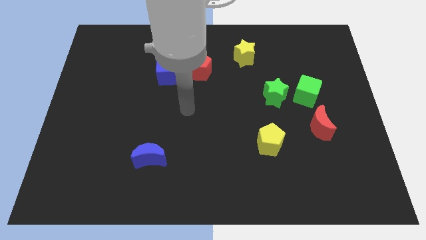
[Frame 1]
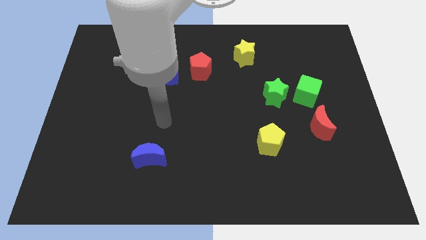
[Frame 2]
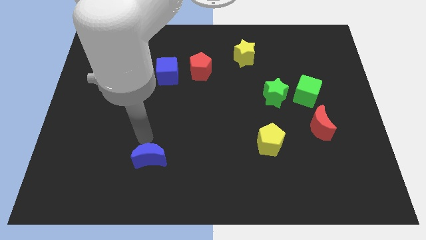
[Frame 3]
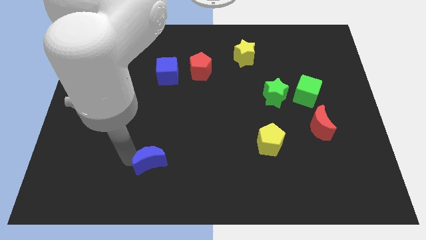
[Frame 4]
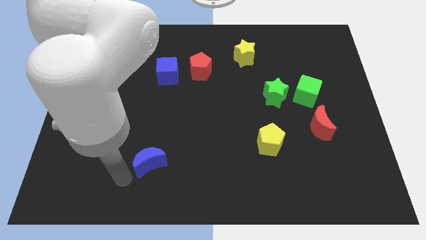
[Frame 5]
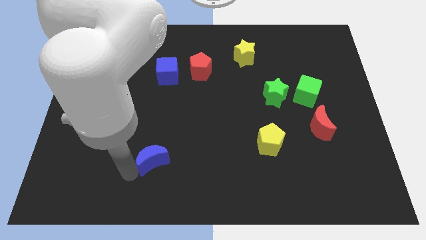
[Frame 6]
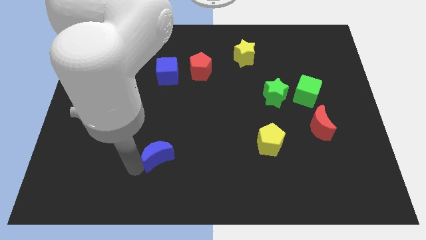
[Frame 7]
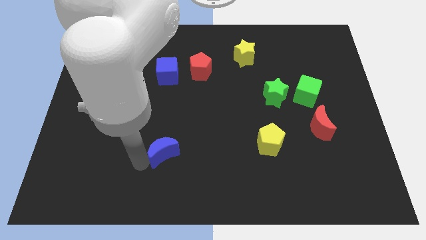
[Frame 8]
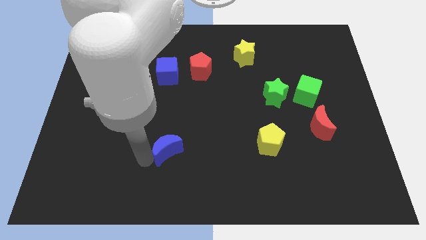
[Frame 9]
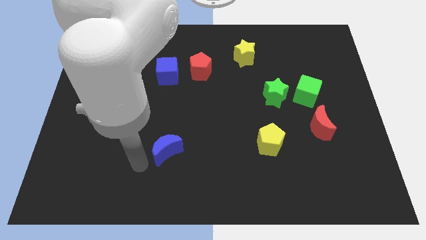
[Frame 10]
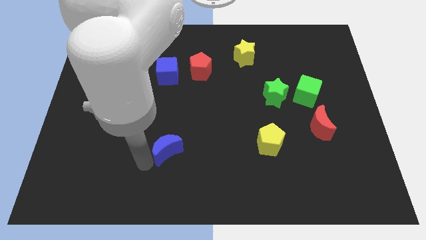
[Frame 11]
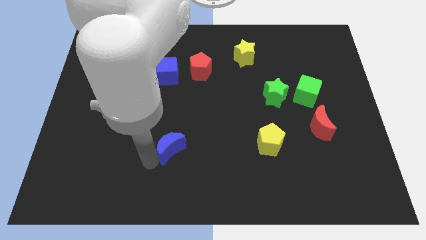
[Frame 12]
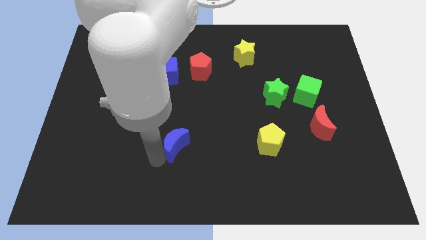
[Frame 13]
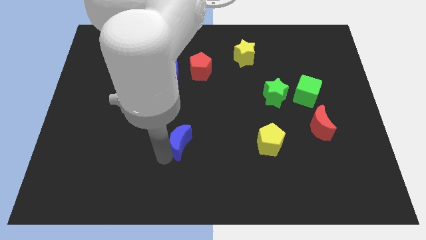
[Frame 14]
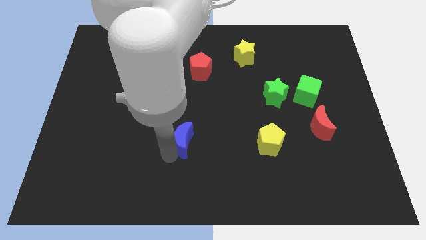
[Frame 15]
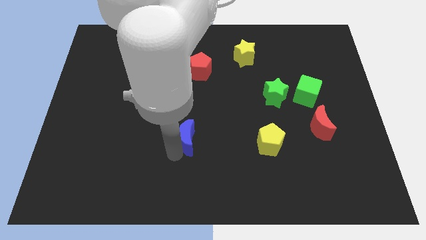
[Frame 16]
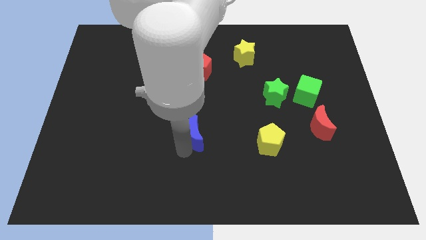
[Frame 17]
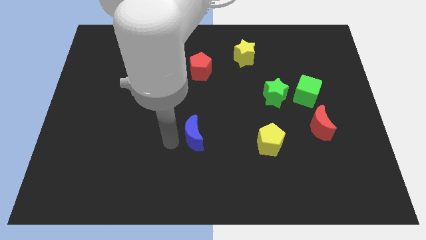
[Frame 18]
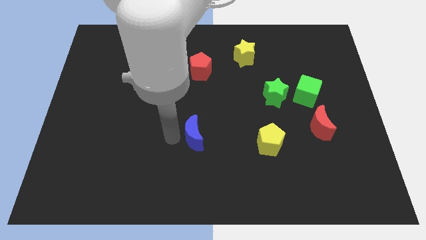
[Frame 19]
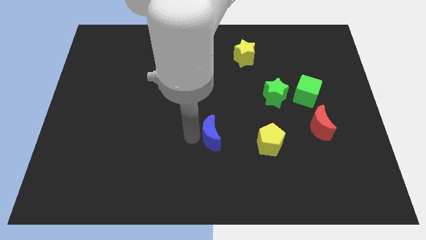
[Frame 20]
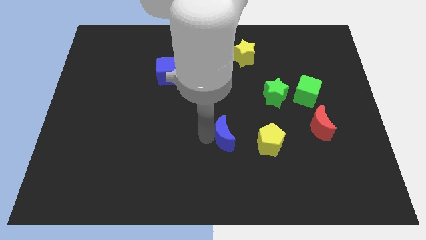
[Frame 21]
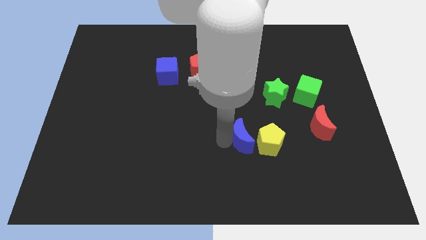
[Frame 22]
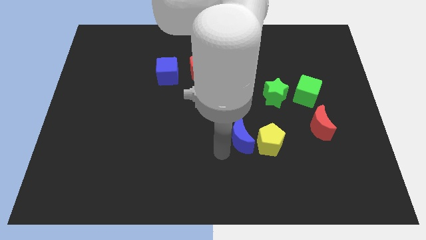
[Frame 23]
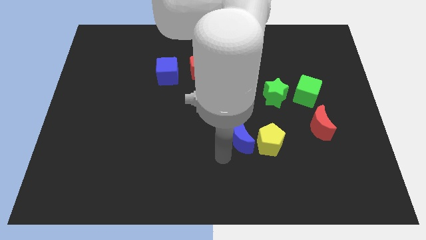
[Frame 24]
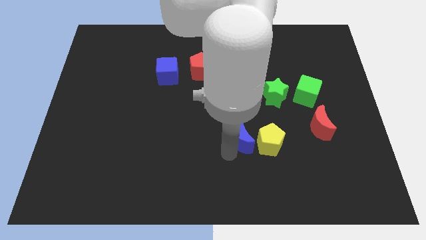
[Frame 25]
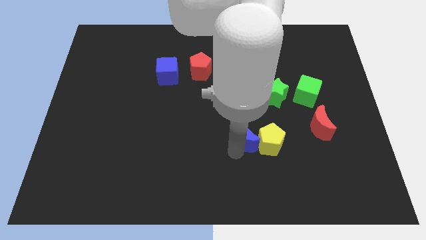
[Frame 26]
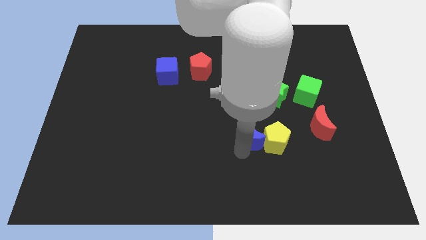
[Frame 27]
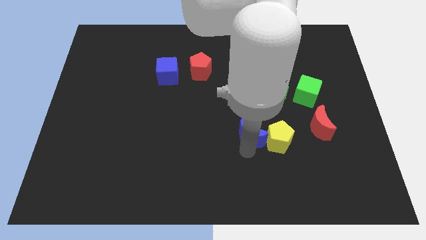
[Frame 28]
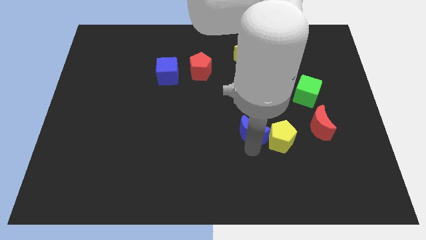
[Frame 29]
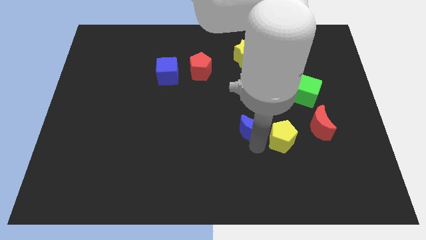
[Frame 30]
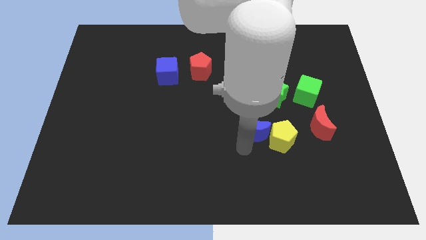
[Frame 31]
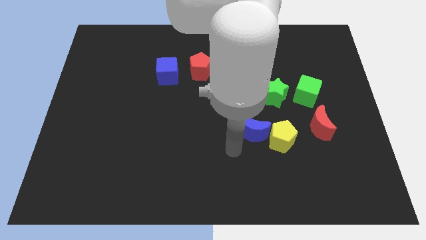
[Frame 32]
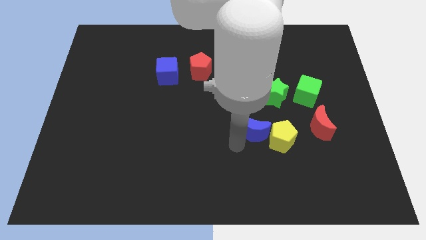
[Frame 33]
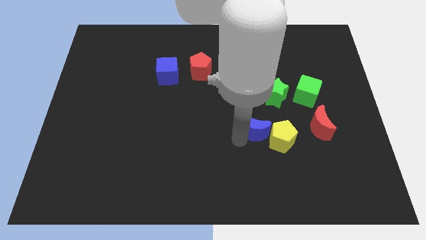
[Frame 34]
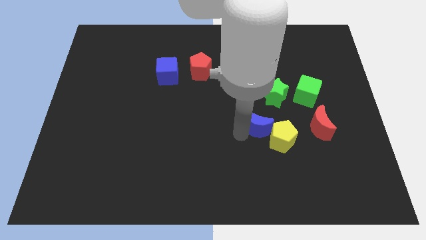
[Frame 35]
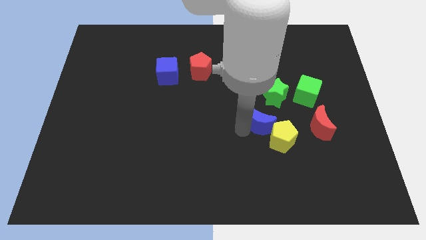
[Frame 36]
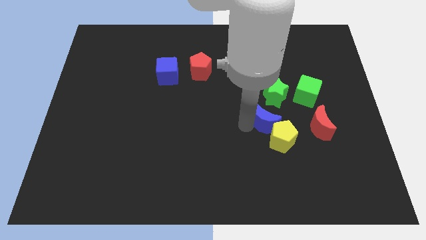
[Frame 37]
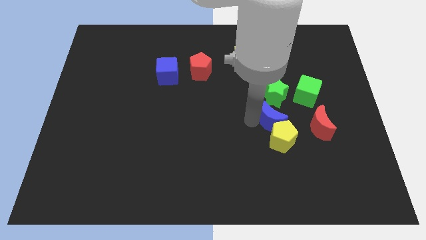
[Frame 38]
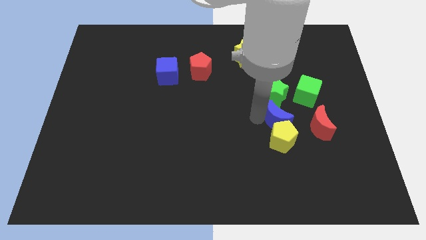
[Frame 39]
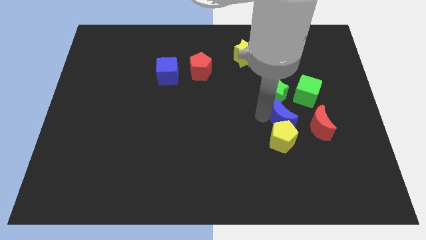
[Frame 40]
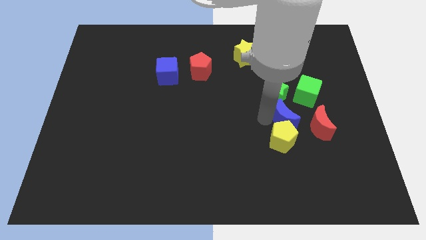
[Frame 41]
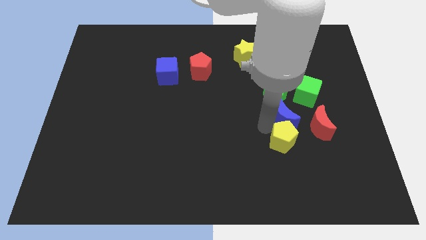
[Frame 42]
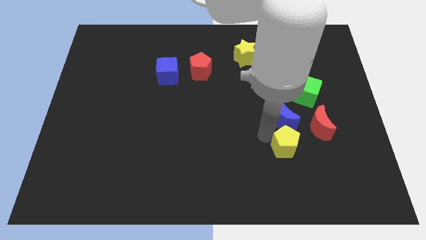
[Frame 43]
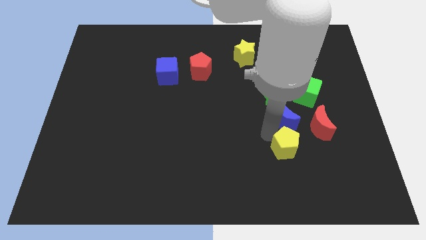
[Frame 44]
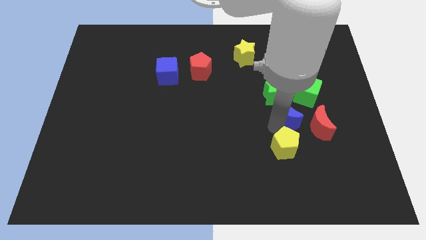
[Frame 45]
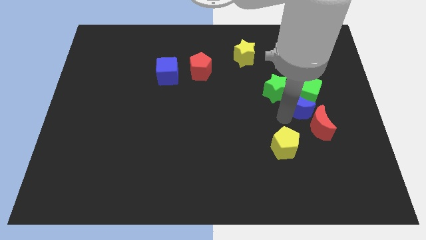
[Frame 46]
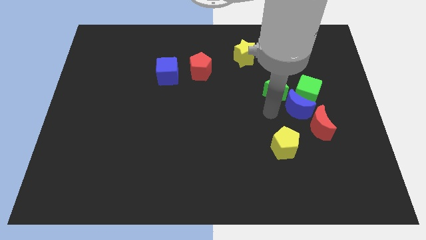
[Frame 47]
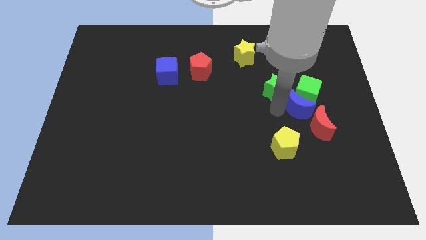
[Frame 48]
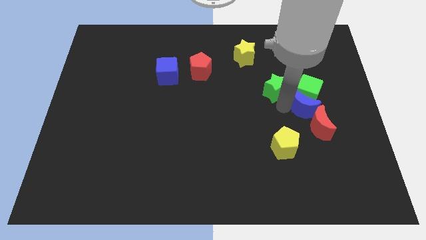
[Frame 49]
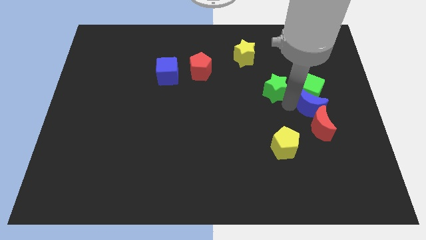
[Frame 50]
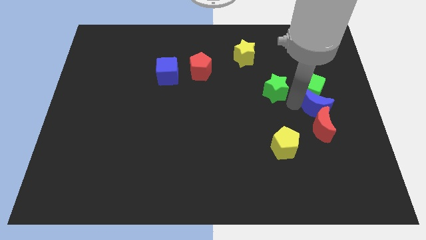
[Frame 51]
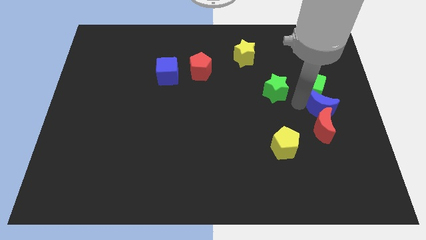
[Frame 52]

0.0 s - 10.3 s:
move the blue moon to the center right

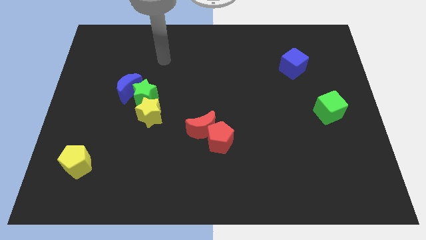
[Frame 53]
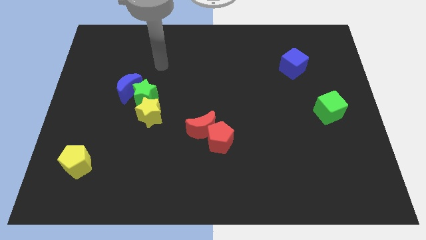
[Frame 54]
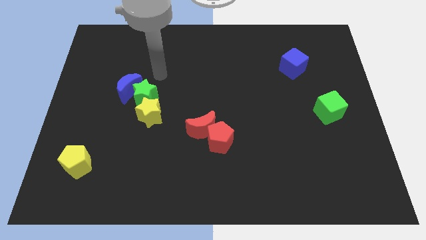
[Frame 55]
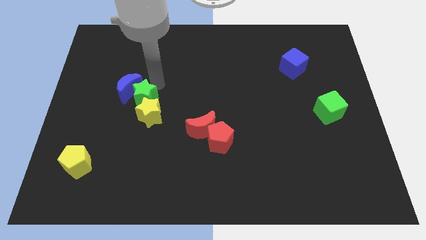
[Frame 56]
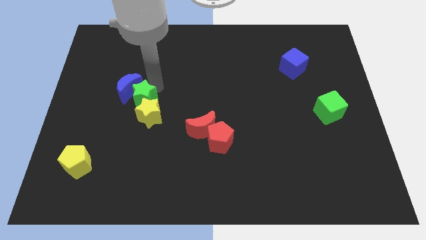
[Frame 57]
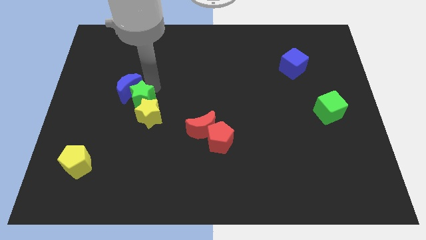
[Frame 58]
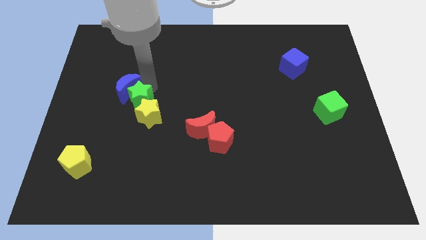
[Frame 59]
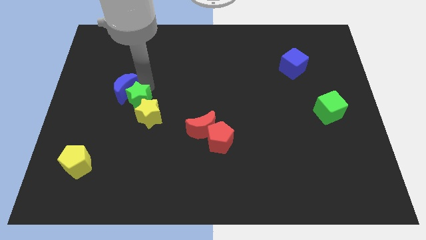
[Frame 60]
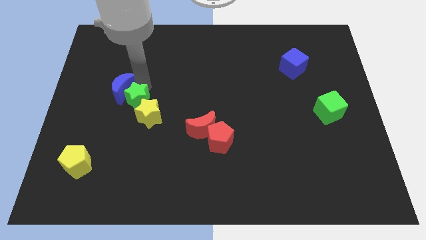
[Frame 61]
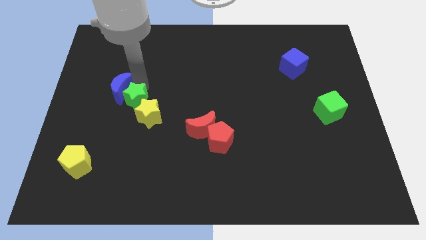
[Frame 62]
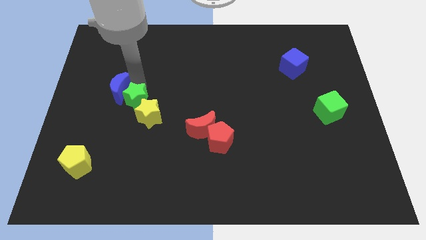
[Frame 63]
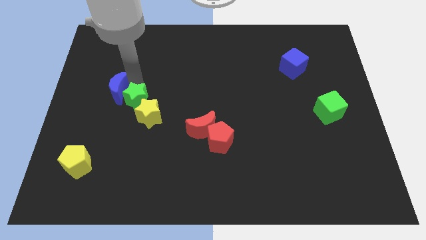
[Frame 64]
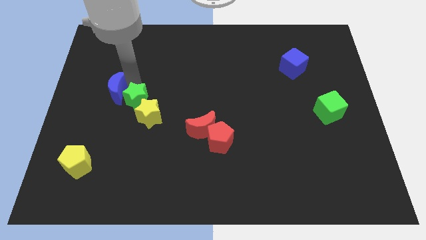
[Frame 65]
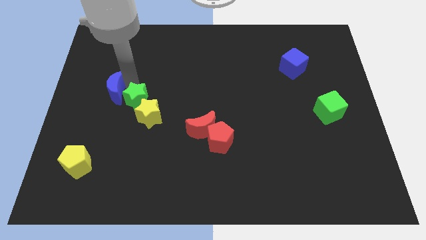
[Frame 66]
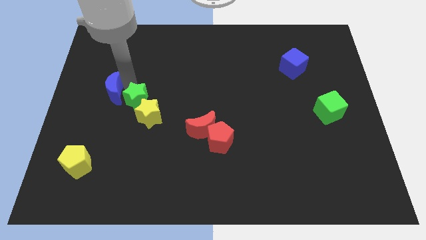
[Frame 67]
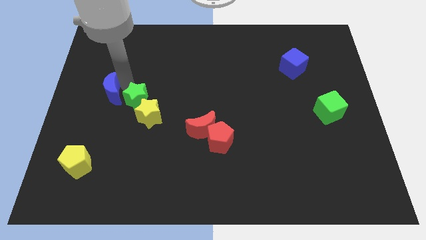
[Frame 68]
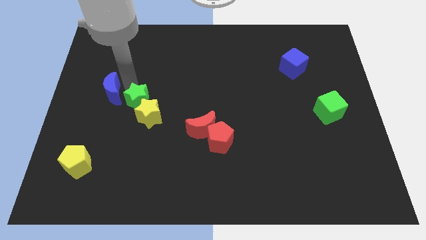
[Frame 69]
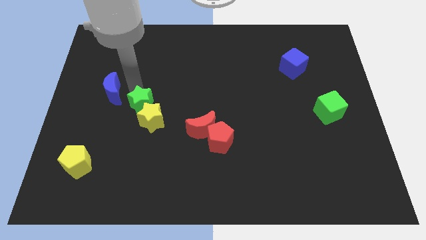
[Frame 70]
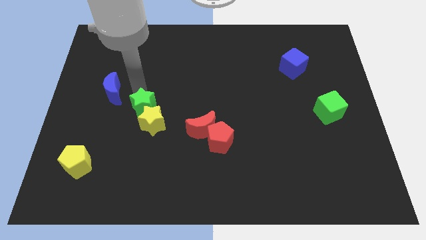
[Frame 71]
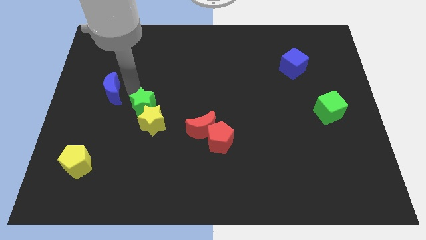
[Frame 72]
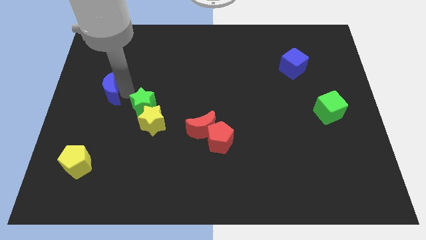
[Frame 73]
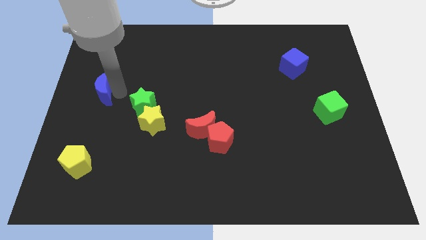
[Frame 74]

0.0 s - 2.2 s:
put the blue moon to the left side of the board
